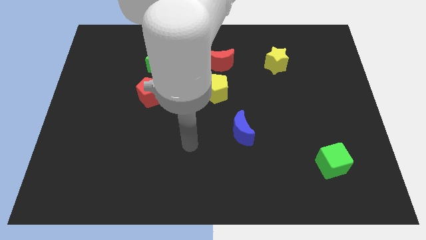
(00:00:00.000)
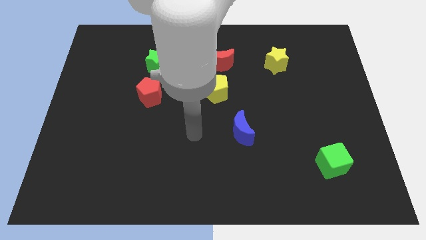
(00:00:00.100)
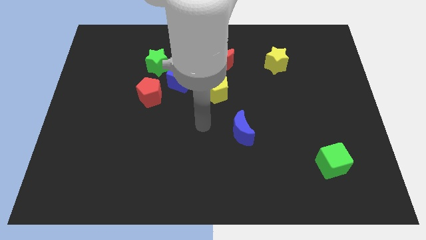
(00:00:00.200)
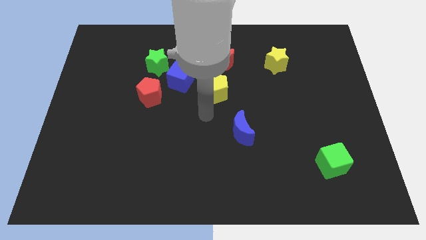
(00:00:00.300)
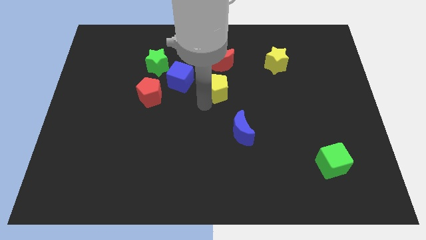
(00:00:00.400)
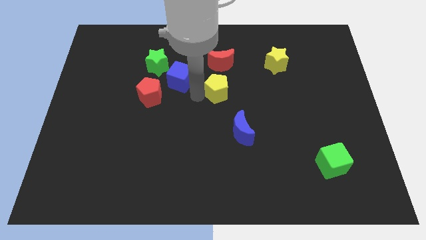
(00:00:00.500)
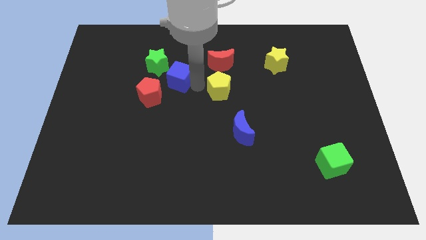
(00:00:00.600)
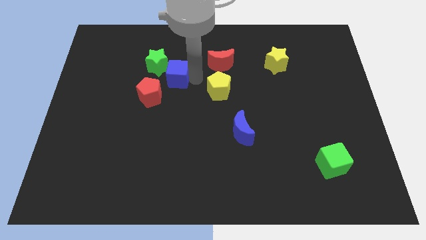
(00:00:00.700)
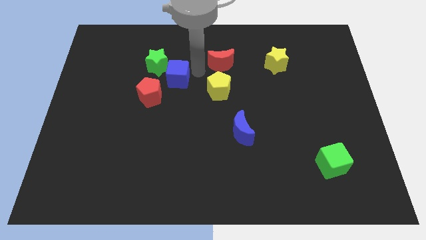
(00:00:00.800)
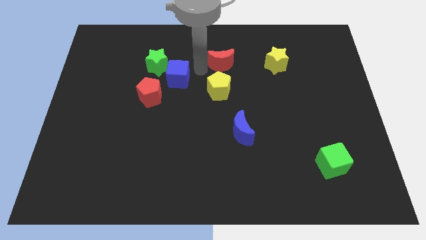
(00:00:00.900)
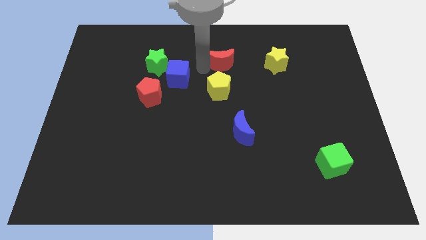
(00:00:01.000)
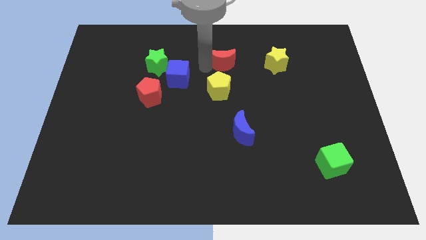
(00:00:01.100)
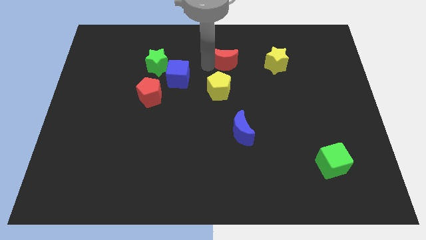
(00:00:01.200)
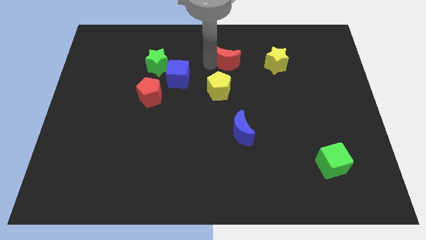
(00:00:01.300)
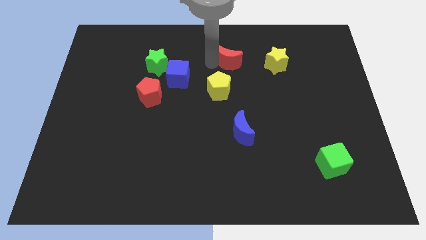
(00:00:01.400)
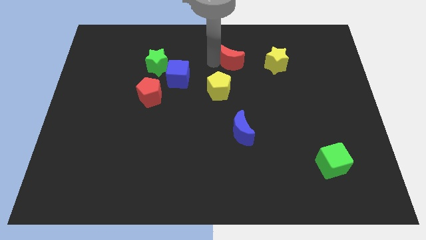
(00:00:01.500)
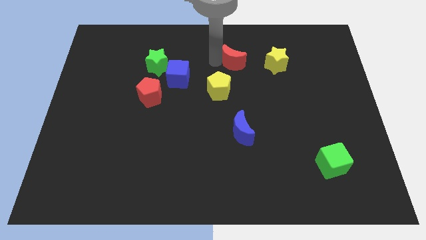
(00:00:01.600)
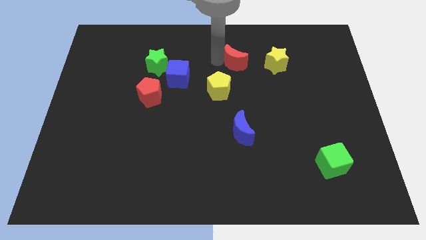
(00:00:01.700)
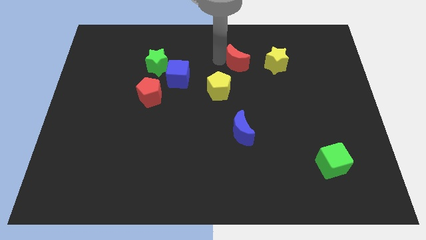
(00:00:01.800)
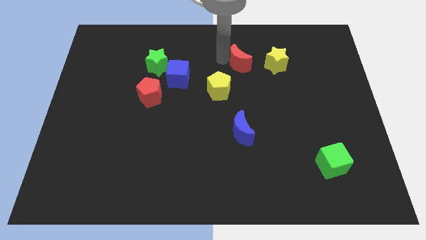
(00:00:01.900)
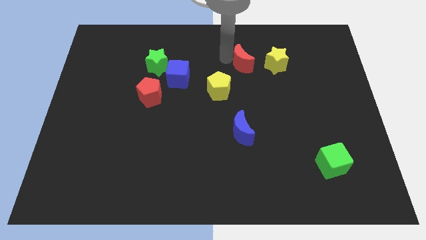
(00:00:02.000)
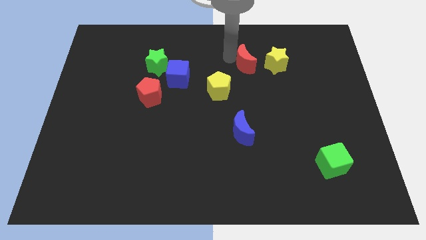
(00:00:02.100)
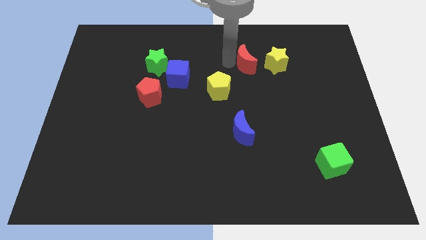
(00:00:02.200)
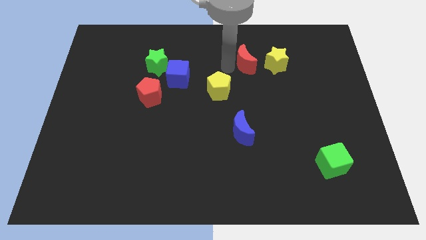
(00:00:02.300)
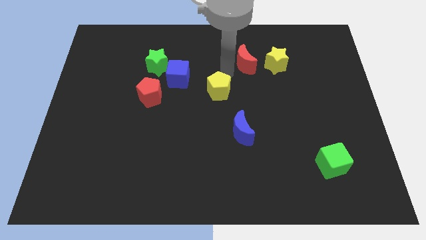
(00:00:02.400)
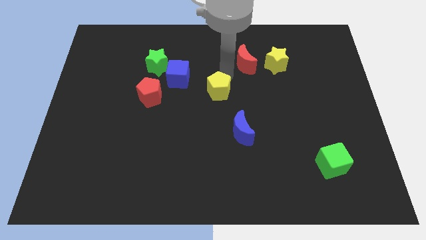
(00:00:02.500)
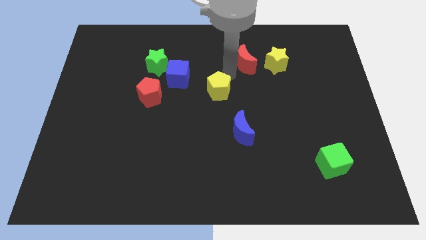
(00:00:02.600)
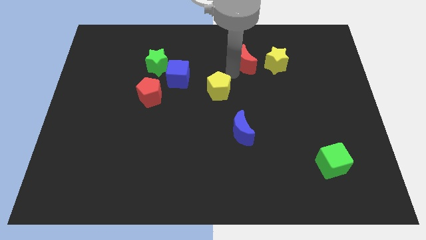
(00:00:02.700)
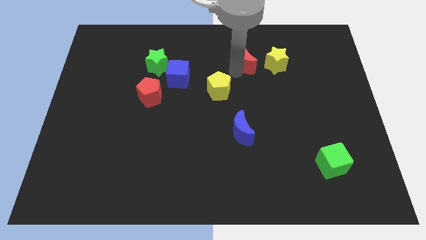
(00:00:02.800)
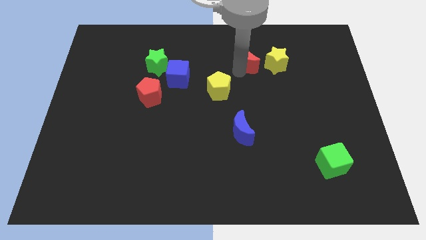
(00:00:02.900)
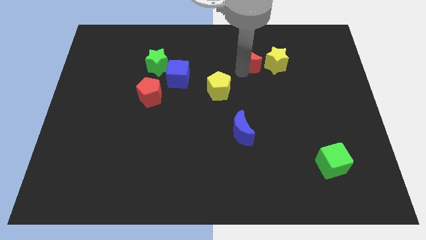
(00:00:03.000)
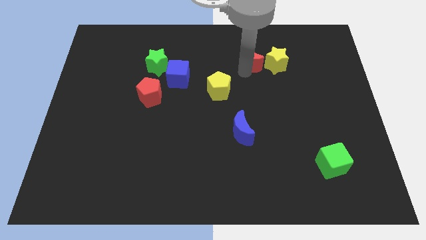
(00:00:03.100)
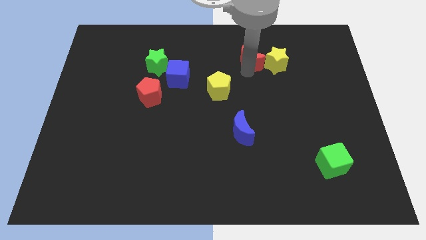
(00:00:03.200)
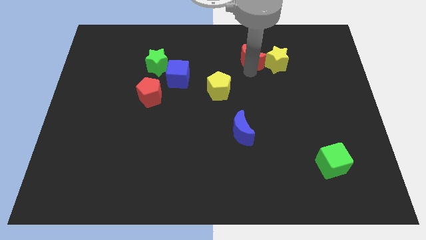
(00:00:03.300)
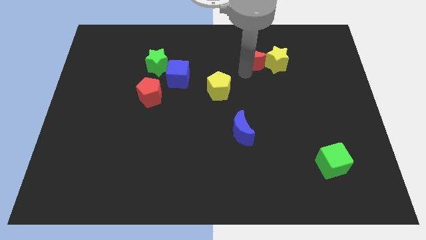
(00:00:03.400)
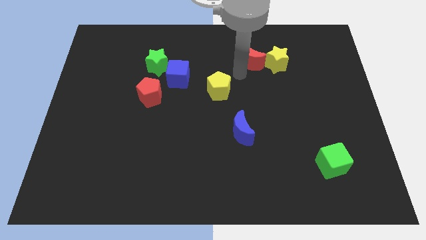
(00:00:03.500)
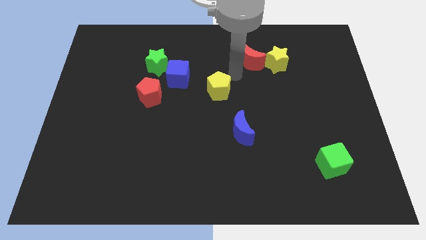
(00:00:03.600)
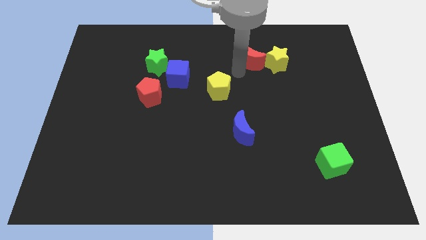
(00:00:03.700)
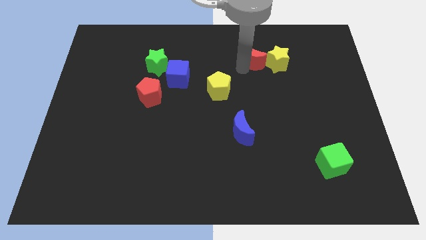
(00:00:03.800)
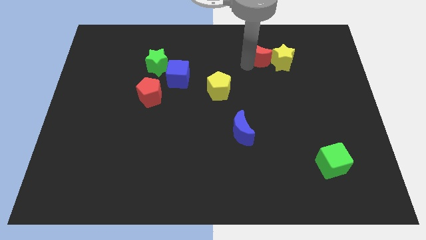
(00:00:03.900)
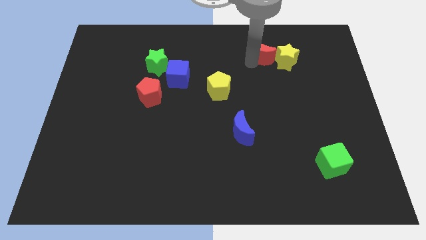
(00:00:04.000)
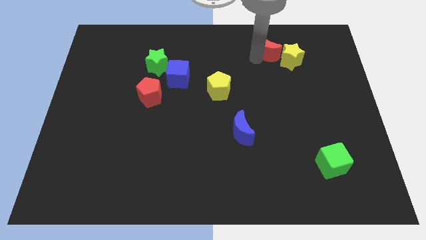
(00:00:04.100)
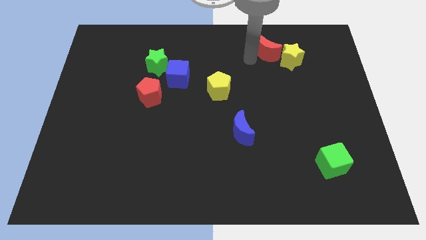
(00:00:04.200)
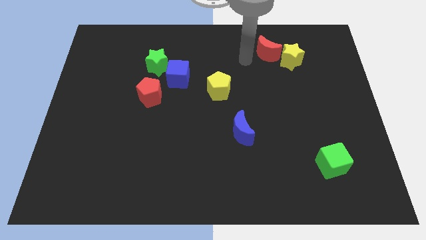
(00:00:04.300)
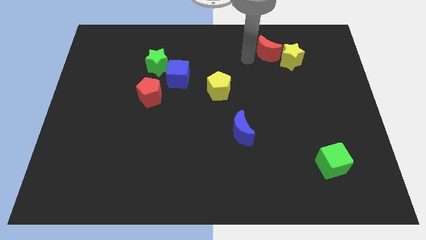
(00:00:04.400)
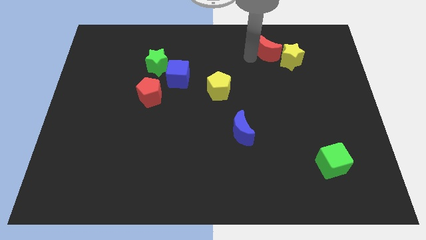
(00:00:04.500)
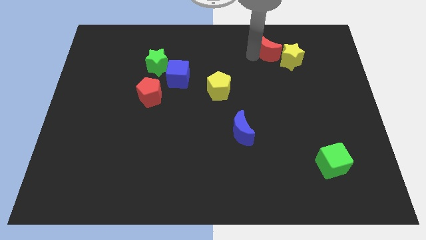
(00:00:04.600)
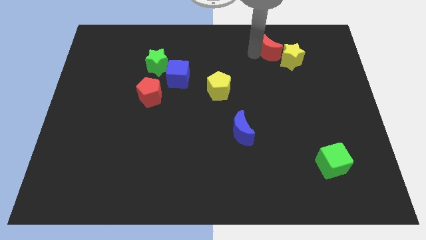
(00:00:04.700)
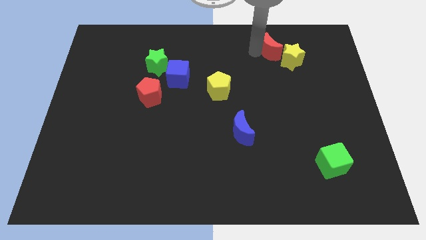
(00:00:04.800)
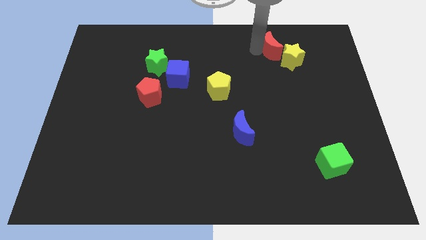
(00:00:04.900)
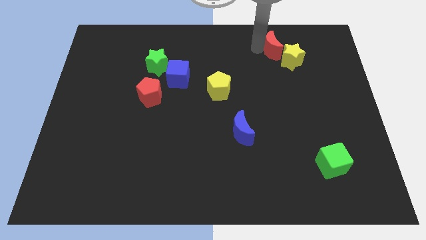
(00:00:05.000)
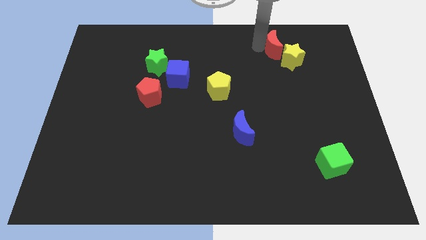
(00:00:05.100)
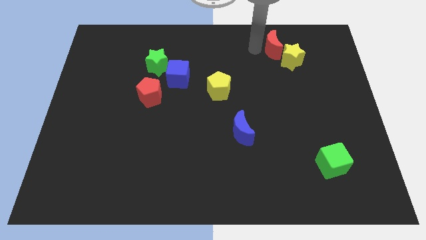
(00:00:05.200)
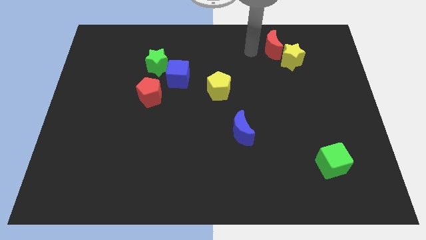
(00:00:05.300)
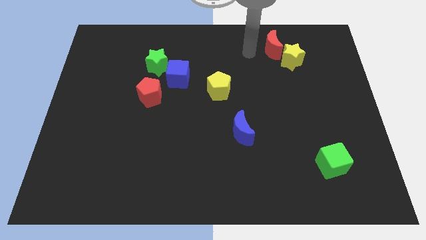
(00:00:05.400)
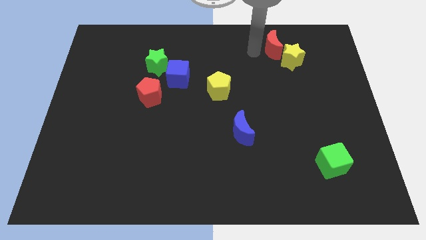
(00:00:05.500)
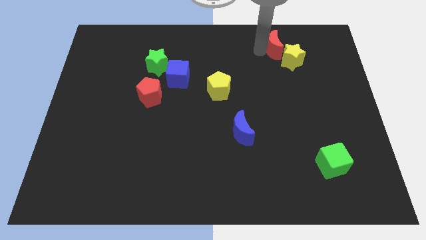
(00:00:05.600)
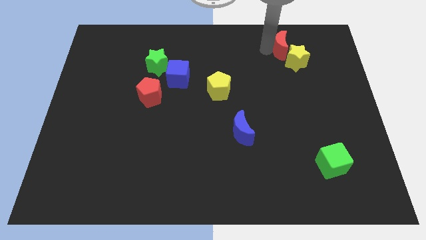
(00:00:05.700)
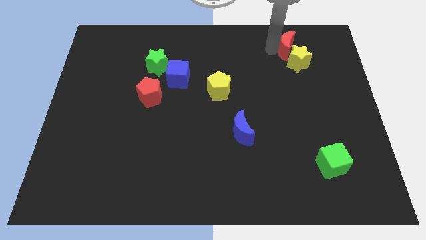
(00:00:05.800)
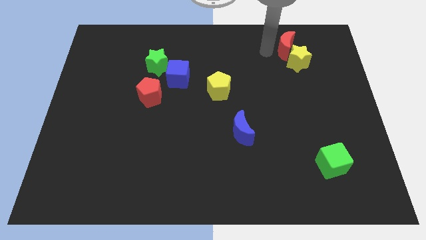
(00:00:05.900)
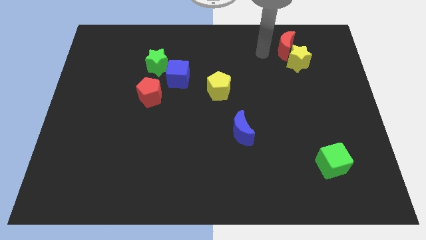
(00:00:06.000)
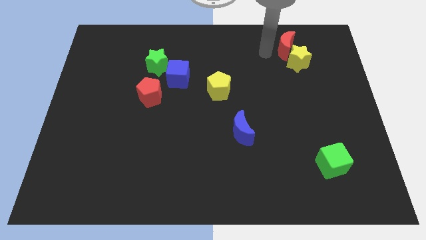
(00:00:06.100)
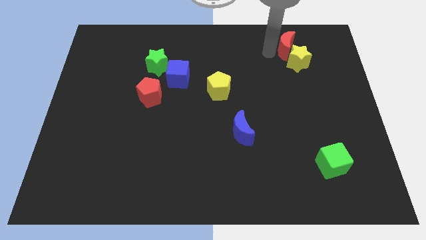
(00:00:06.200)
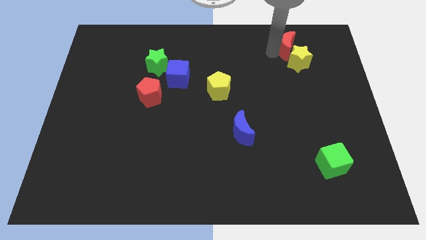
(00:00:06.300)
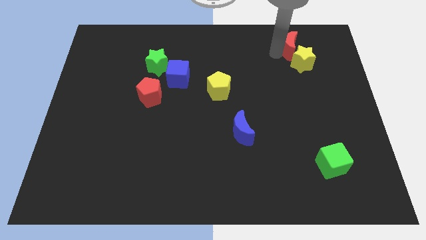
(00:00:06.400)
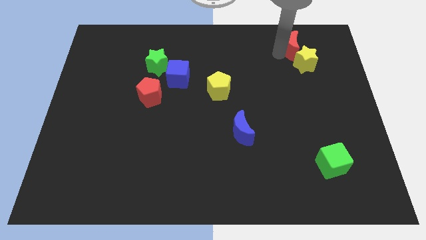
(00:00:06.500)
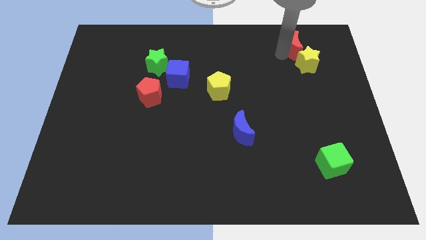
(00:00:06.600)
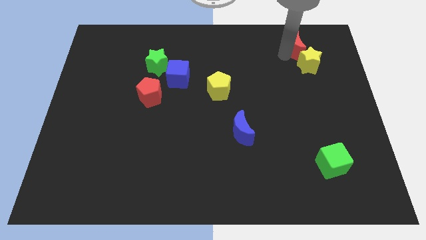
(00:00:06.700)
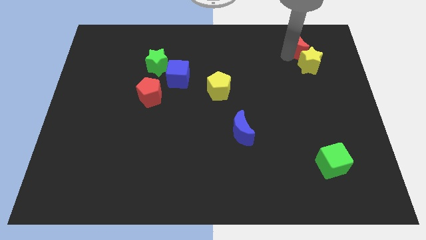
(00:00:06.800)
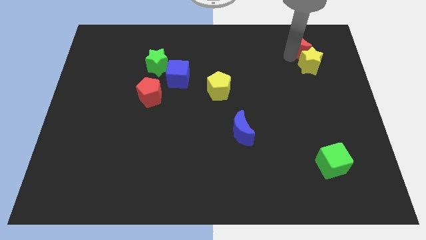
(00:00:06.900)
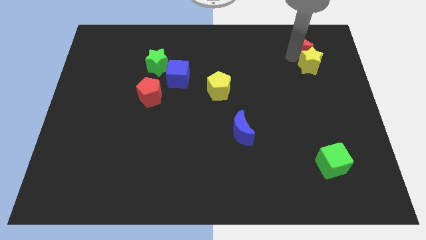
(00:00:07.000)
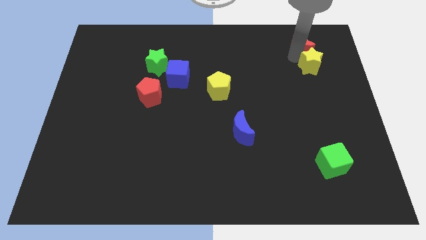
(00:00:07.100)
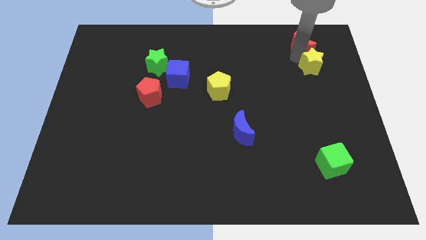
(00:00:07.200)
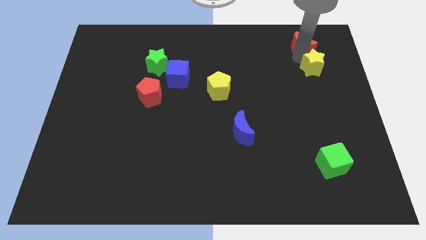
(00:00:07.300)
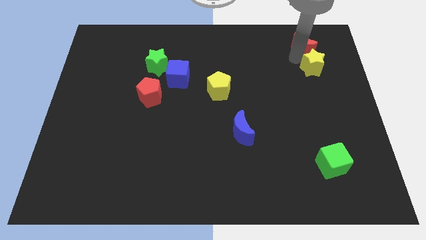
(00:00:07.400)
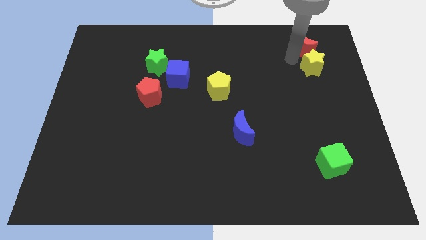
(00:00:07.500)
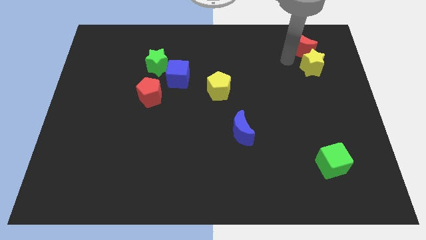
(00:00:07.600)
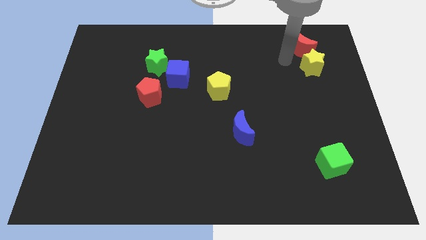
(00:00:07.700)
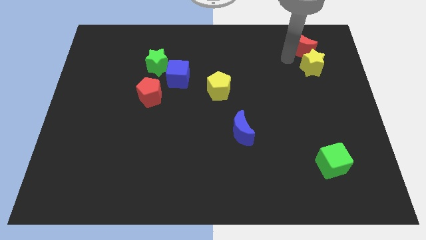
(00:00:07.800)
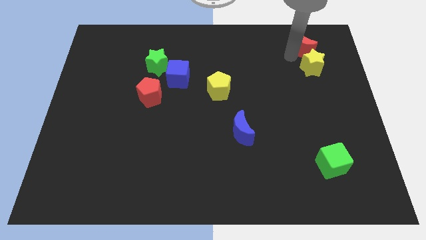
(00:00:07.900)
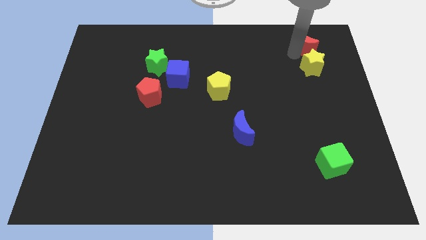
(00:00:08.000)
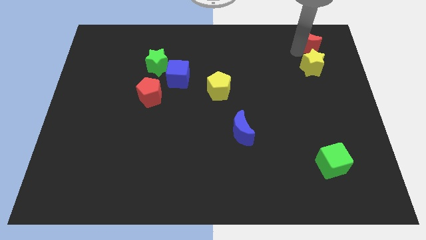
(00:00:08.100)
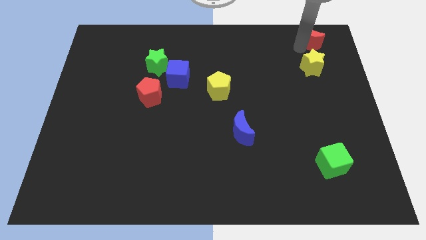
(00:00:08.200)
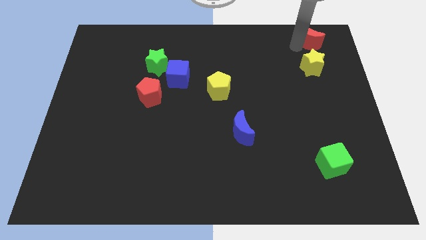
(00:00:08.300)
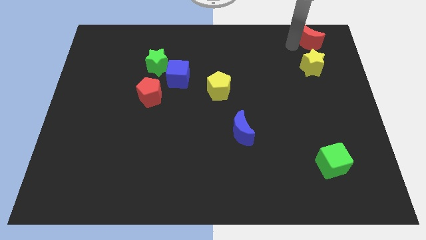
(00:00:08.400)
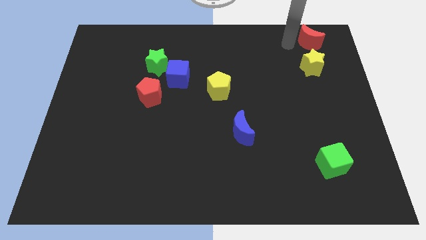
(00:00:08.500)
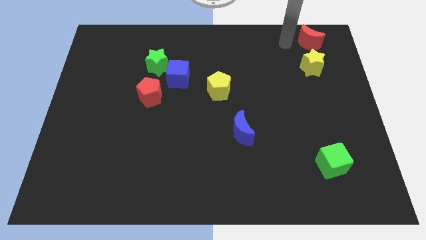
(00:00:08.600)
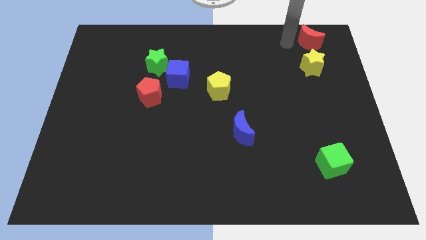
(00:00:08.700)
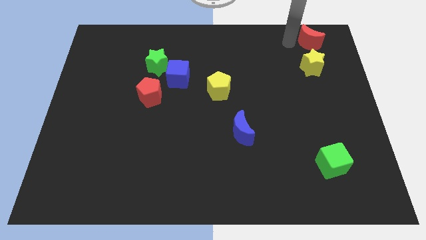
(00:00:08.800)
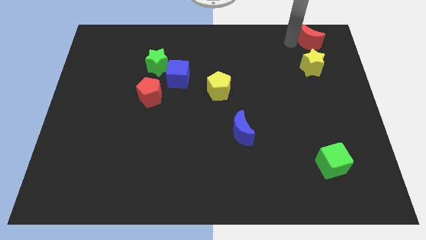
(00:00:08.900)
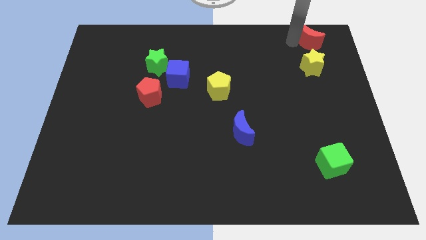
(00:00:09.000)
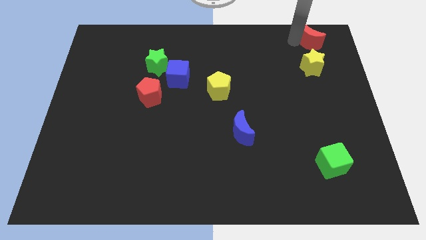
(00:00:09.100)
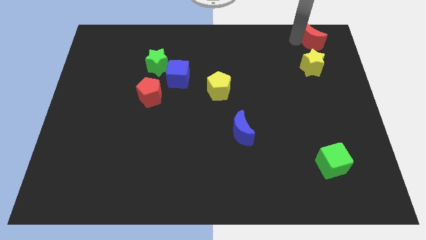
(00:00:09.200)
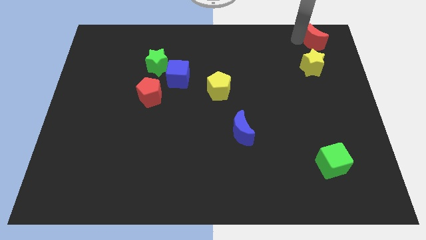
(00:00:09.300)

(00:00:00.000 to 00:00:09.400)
push the red moon to the top right of the board
